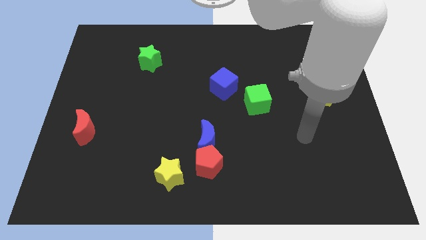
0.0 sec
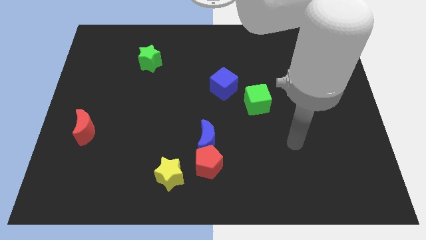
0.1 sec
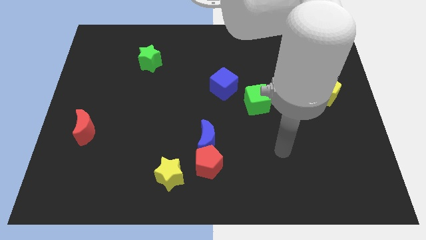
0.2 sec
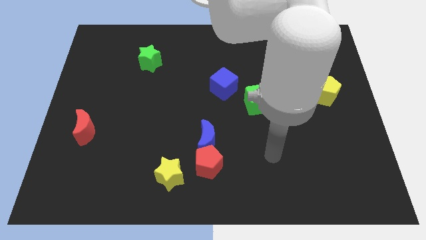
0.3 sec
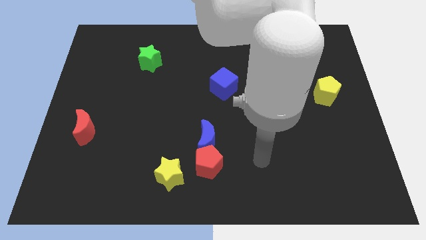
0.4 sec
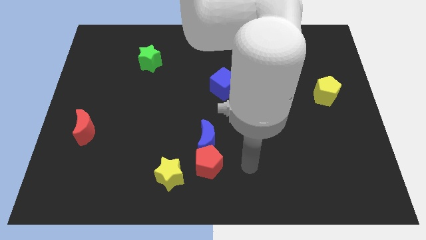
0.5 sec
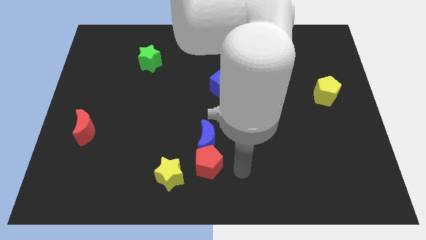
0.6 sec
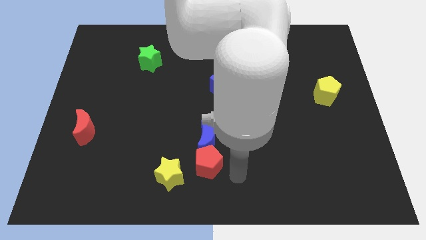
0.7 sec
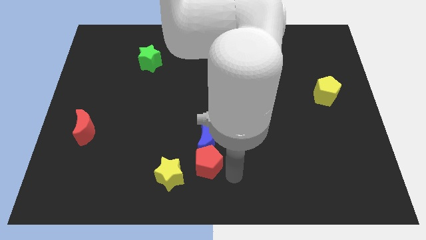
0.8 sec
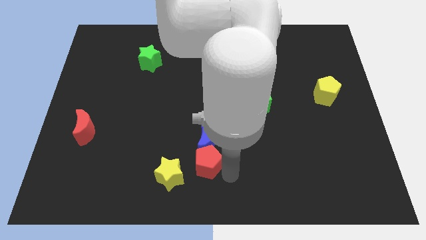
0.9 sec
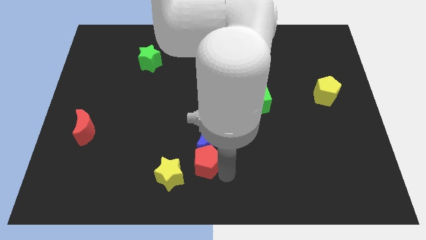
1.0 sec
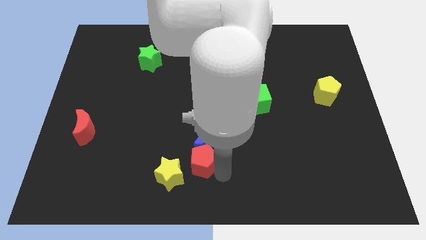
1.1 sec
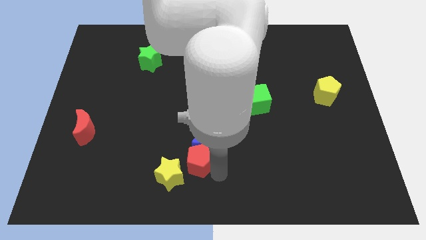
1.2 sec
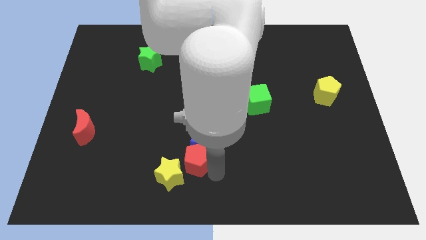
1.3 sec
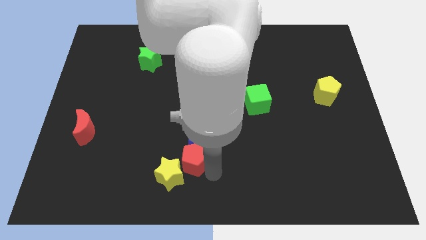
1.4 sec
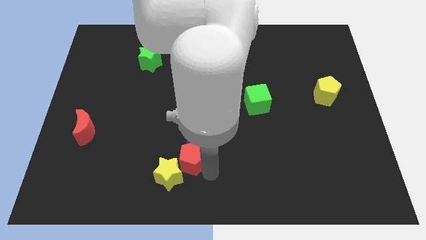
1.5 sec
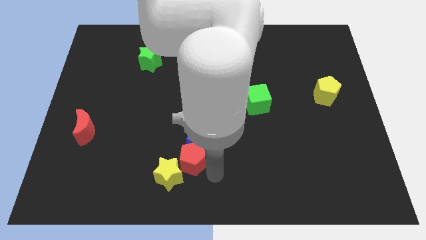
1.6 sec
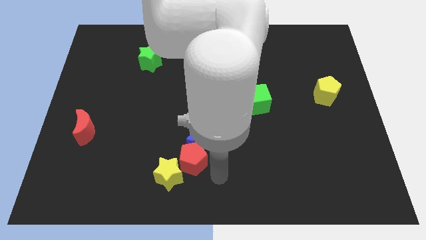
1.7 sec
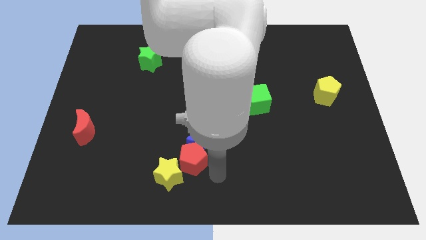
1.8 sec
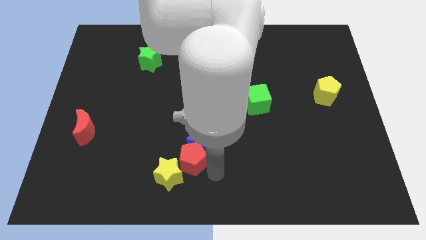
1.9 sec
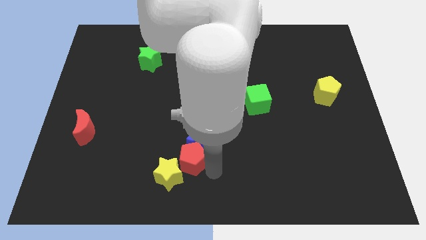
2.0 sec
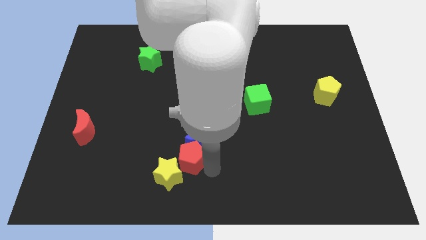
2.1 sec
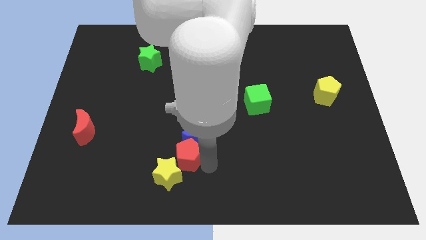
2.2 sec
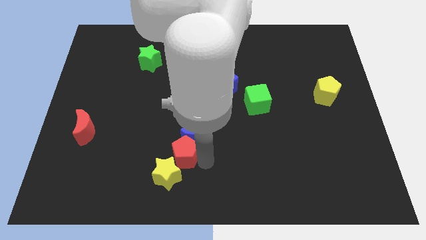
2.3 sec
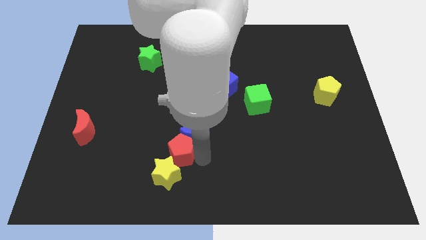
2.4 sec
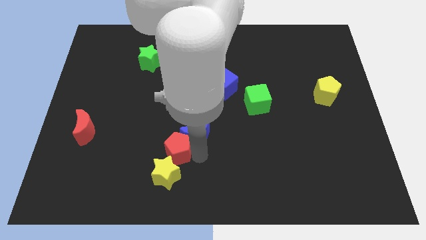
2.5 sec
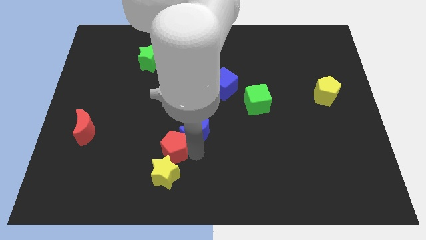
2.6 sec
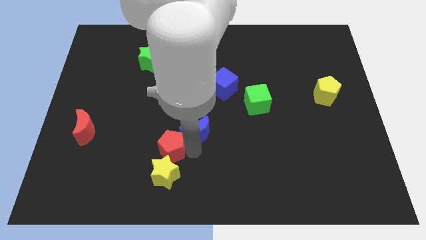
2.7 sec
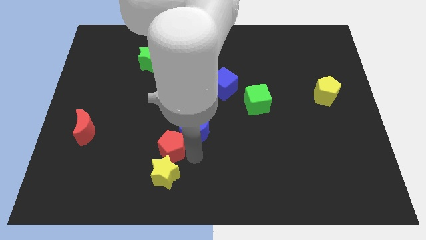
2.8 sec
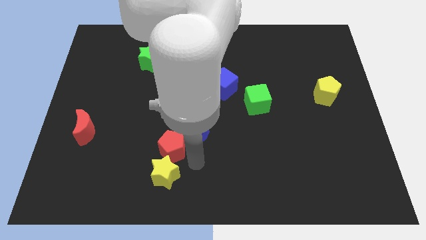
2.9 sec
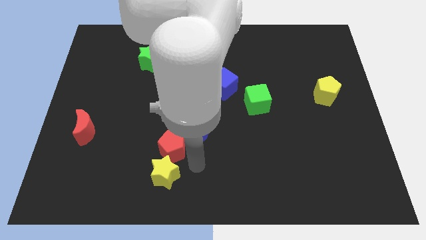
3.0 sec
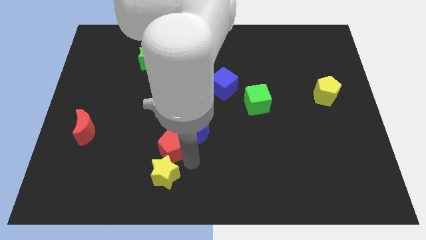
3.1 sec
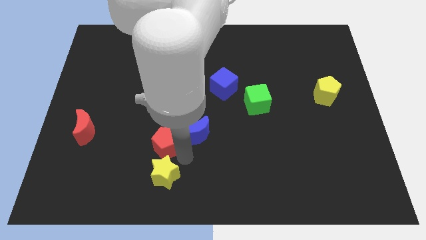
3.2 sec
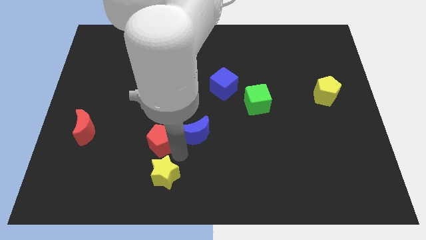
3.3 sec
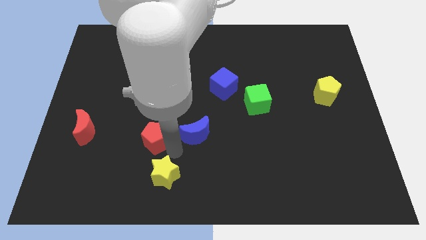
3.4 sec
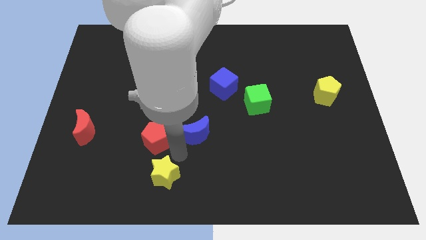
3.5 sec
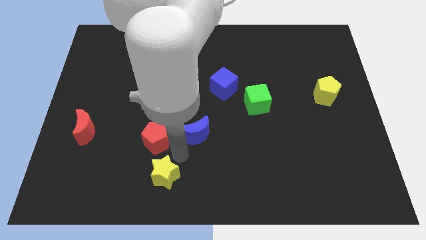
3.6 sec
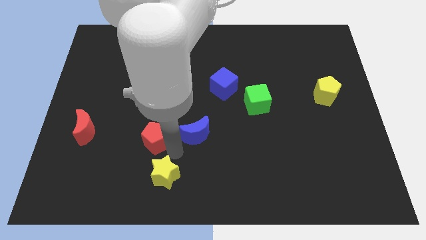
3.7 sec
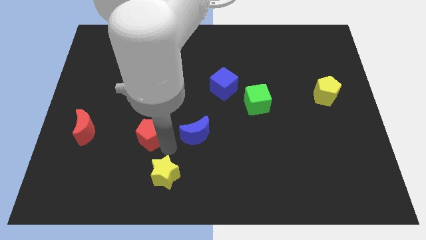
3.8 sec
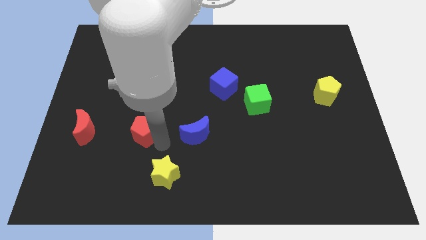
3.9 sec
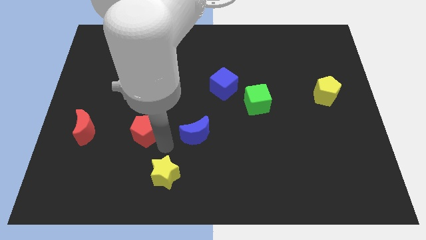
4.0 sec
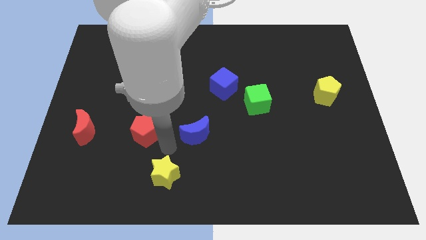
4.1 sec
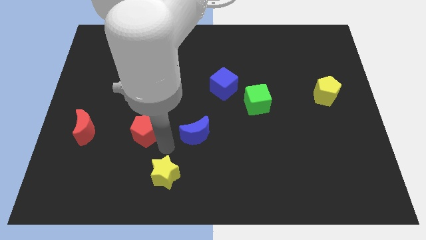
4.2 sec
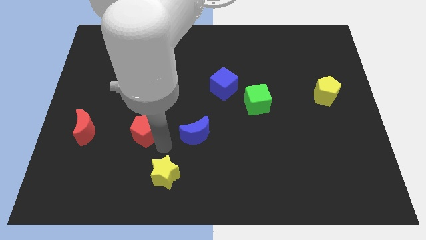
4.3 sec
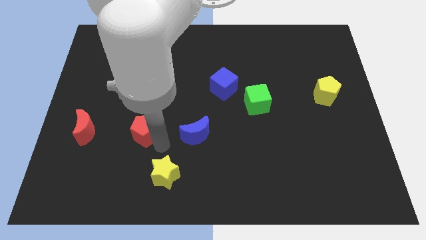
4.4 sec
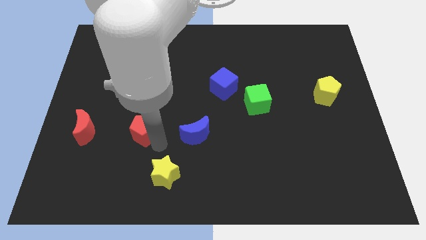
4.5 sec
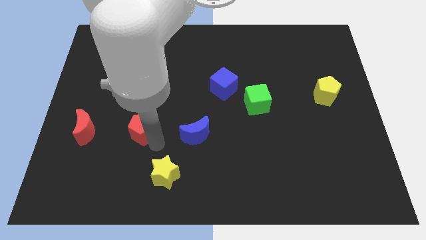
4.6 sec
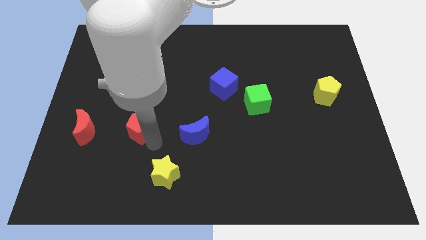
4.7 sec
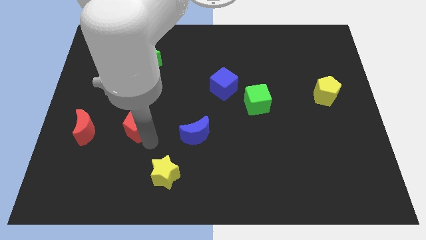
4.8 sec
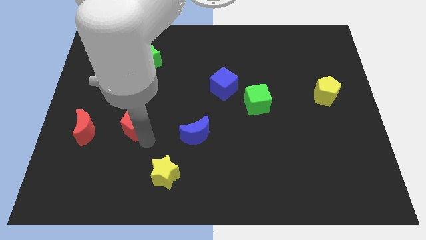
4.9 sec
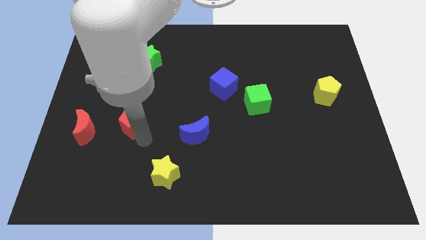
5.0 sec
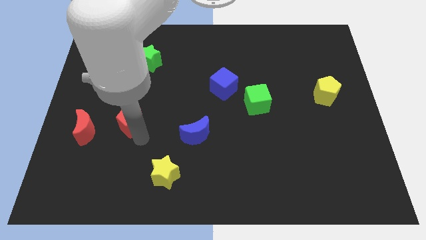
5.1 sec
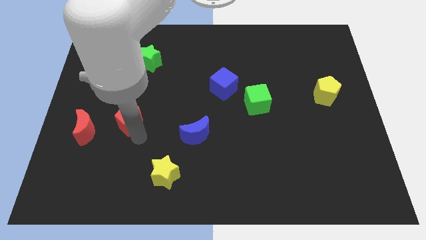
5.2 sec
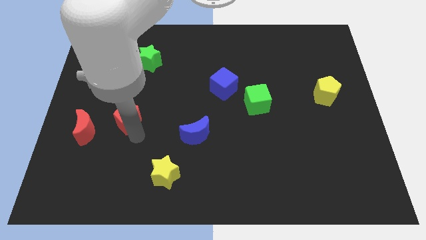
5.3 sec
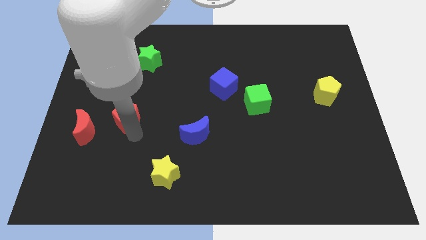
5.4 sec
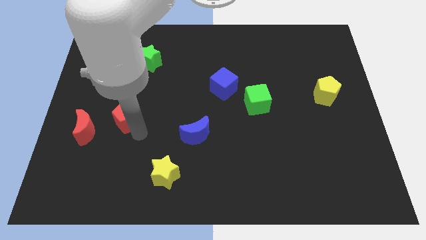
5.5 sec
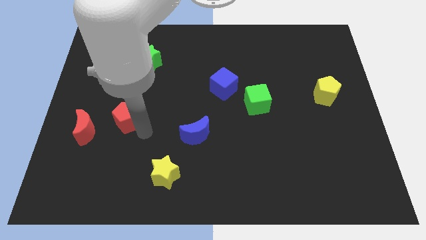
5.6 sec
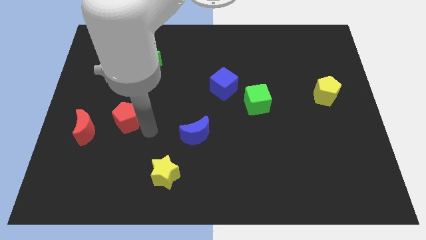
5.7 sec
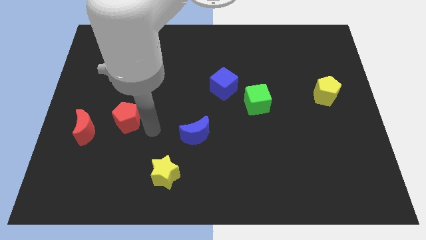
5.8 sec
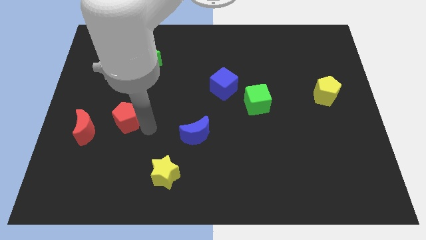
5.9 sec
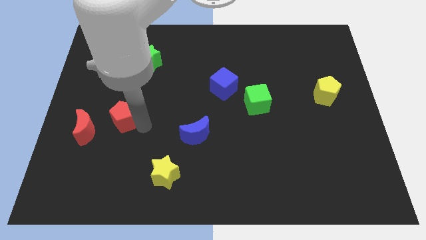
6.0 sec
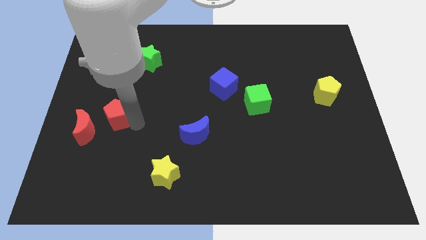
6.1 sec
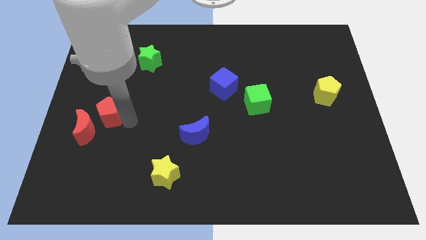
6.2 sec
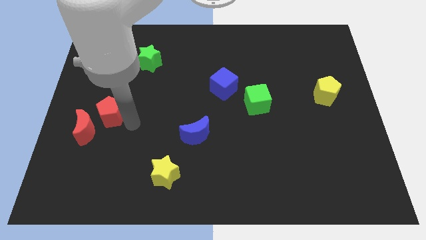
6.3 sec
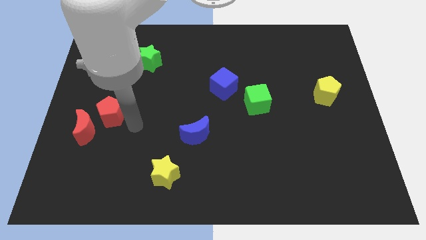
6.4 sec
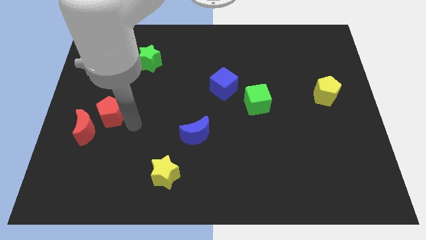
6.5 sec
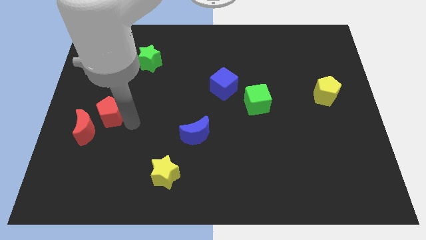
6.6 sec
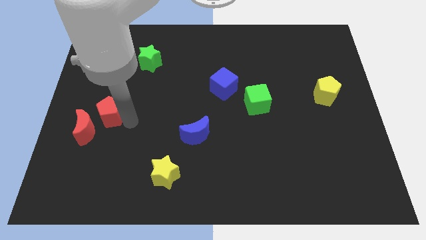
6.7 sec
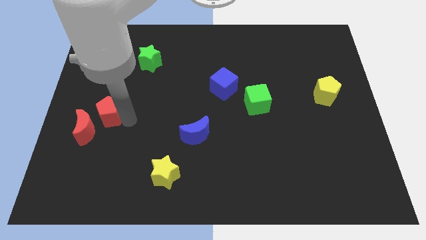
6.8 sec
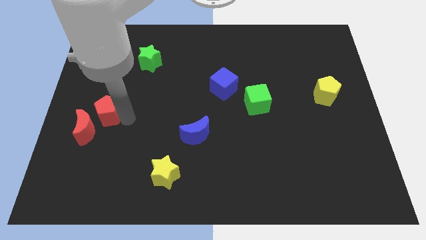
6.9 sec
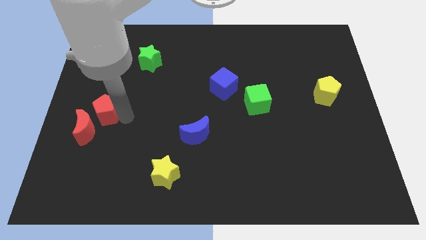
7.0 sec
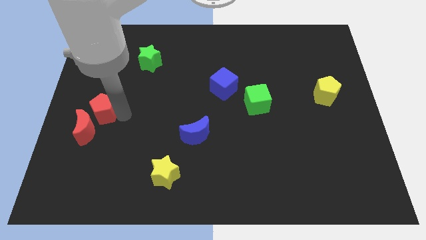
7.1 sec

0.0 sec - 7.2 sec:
move the red pentagon to the left side
